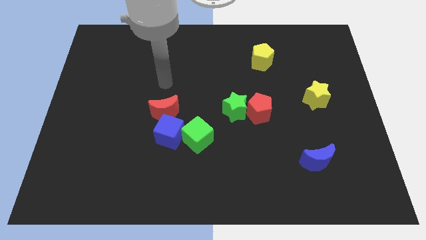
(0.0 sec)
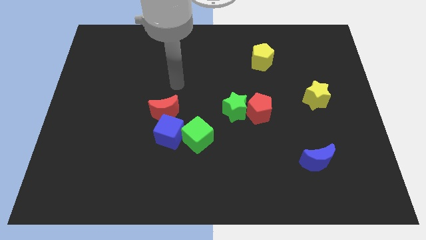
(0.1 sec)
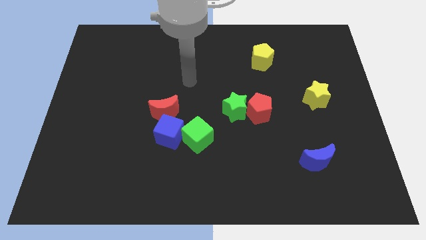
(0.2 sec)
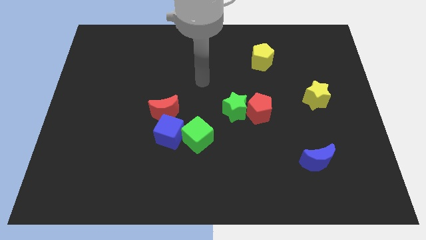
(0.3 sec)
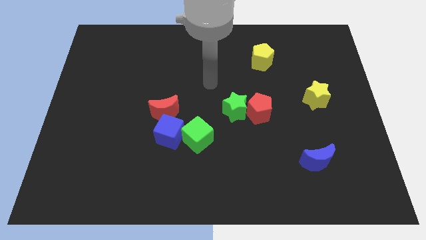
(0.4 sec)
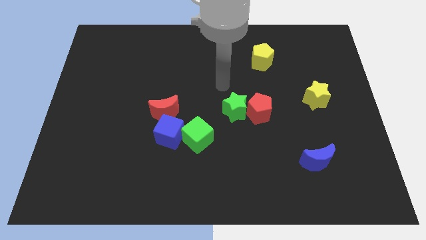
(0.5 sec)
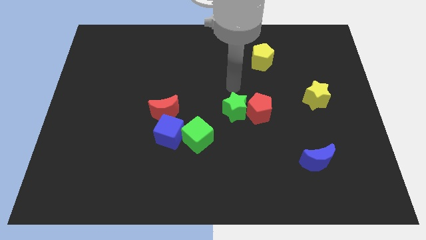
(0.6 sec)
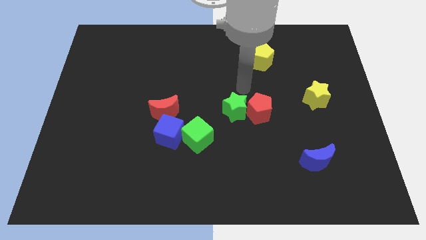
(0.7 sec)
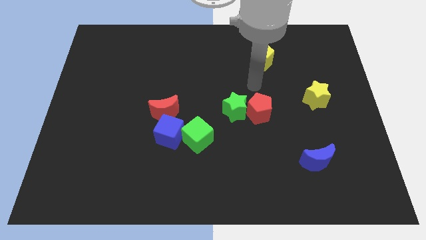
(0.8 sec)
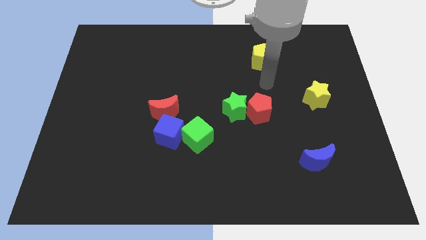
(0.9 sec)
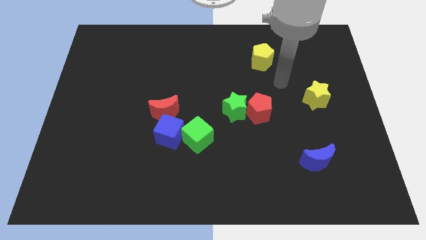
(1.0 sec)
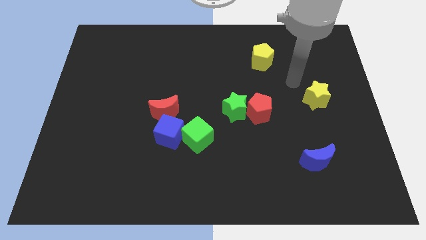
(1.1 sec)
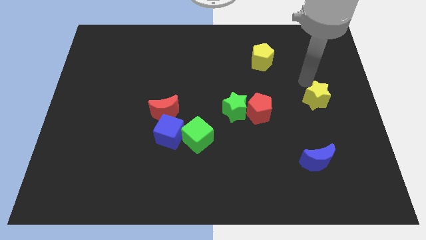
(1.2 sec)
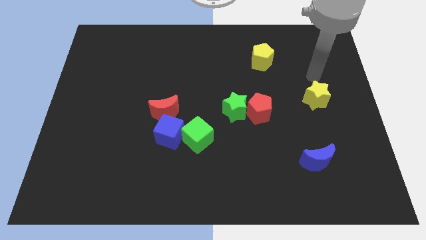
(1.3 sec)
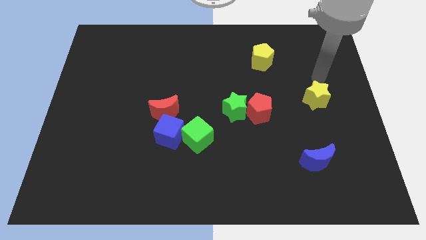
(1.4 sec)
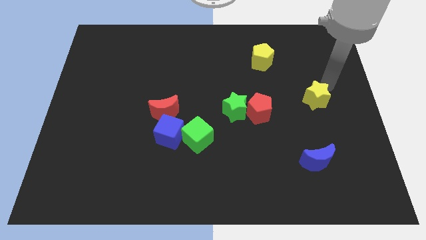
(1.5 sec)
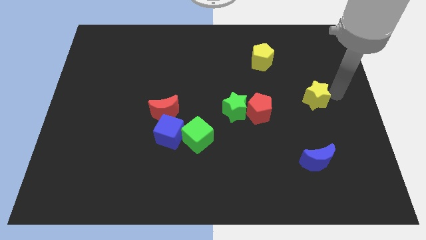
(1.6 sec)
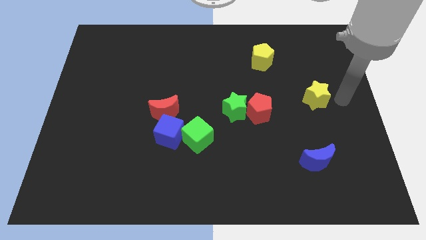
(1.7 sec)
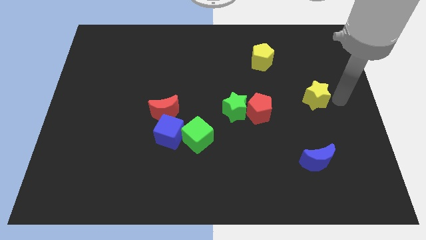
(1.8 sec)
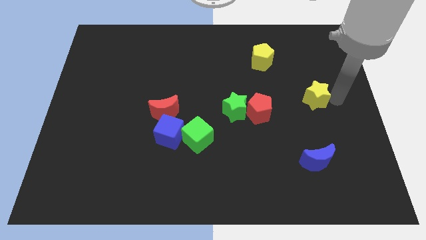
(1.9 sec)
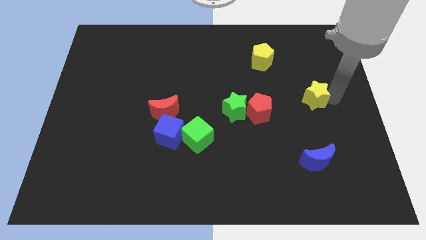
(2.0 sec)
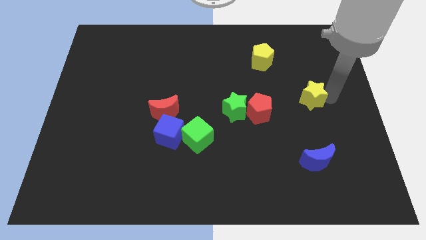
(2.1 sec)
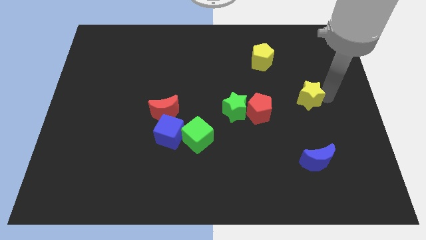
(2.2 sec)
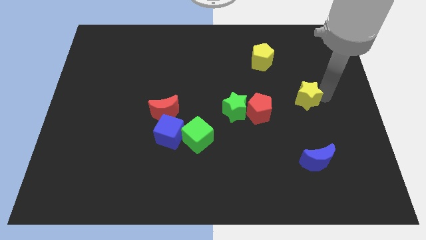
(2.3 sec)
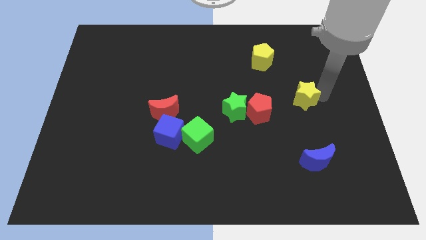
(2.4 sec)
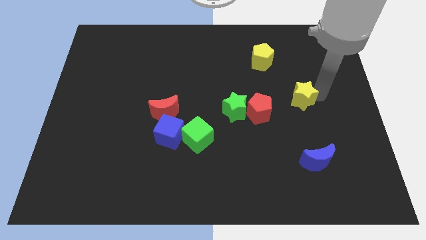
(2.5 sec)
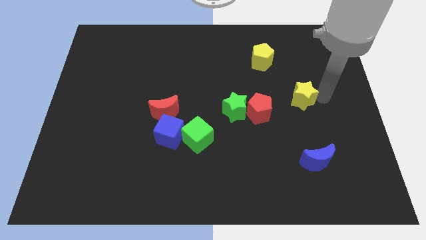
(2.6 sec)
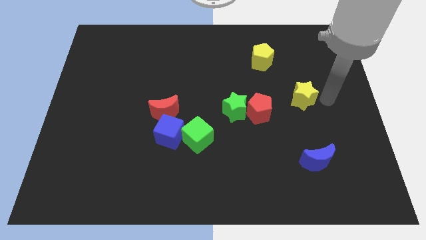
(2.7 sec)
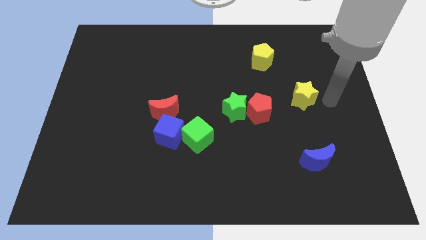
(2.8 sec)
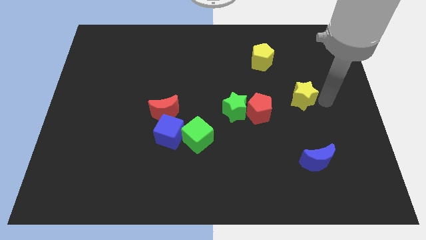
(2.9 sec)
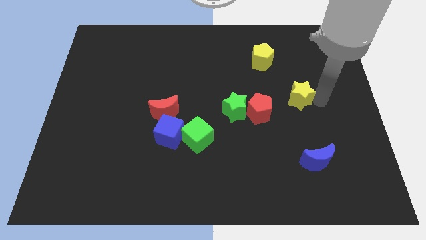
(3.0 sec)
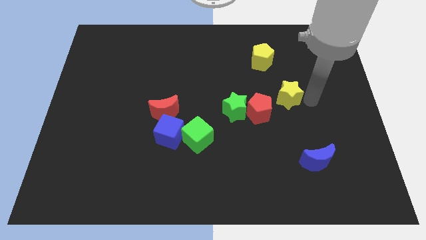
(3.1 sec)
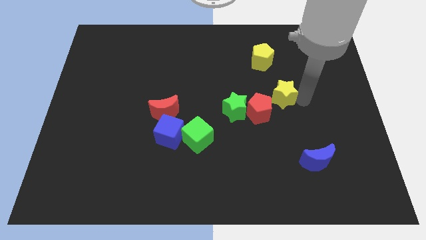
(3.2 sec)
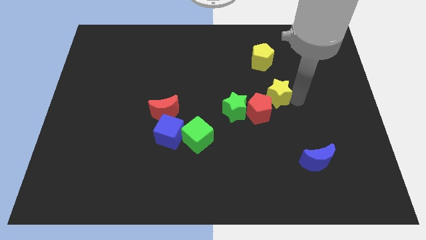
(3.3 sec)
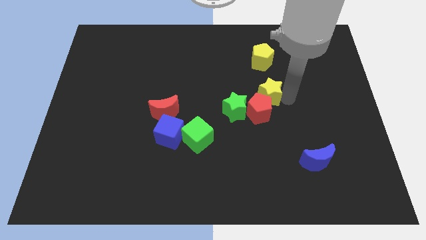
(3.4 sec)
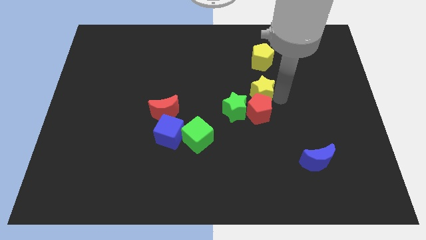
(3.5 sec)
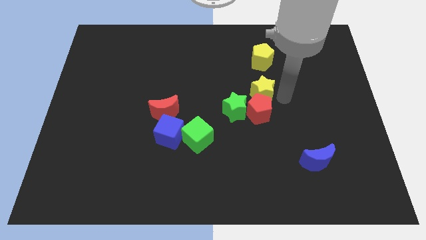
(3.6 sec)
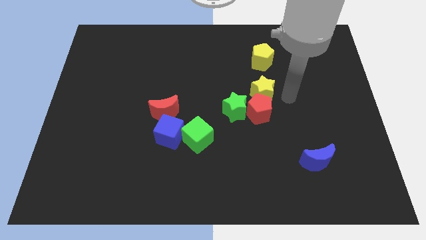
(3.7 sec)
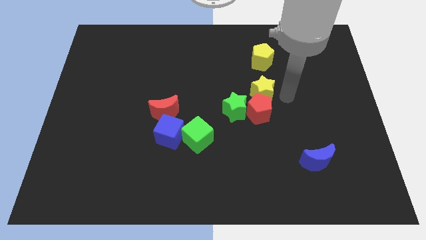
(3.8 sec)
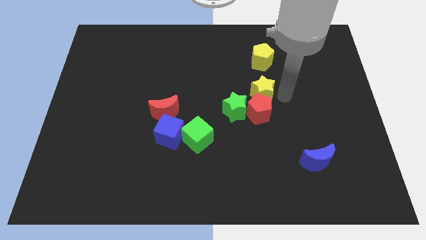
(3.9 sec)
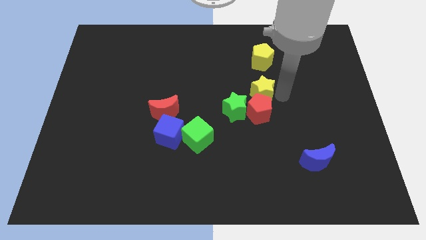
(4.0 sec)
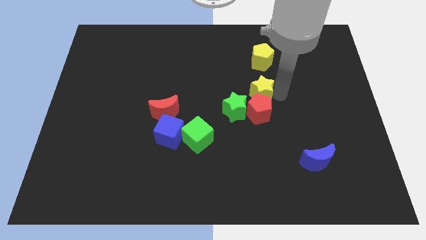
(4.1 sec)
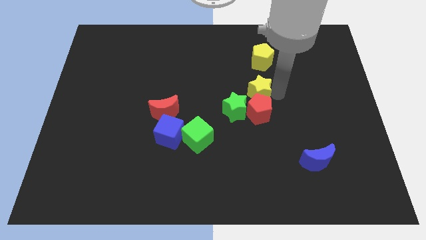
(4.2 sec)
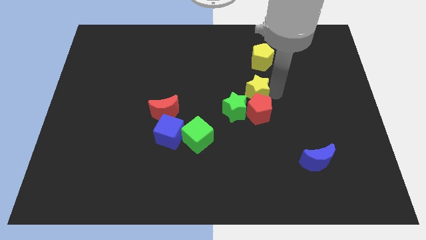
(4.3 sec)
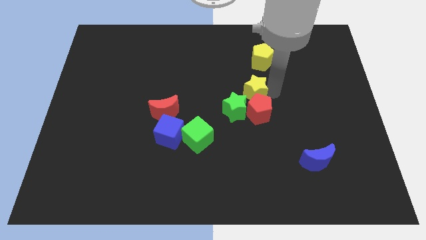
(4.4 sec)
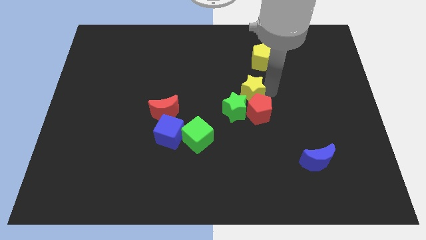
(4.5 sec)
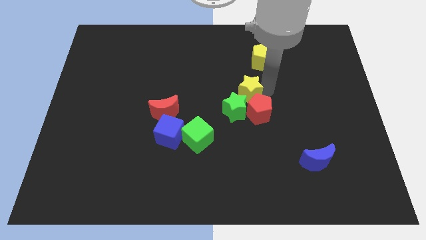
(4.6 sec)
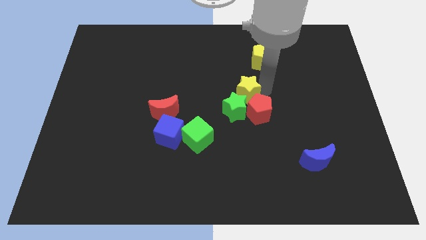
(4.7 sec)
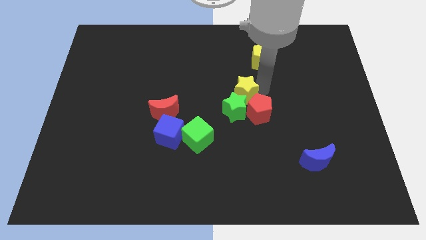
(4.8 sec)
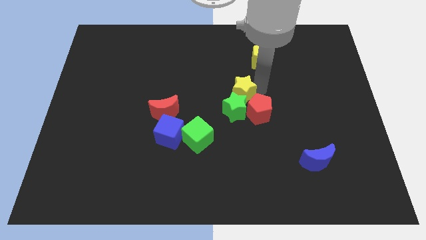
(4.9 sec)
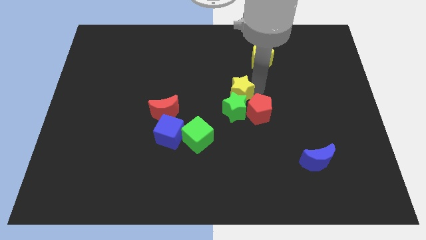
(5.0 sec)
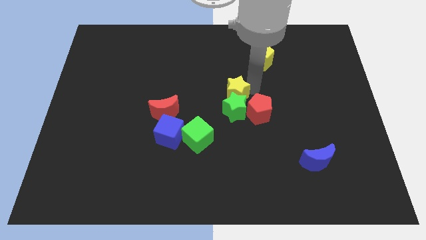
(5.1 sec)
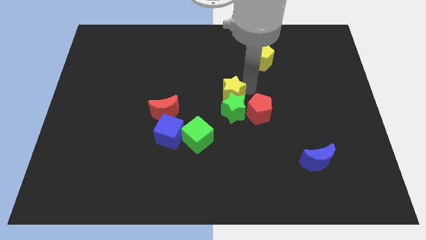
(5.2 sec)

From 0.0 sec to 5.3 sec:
slide the yellow star left

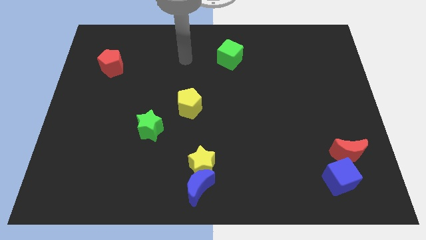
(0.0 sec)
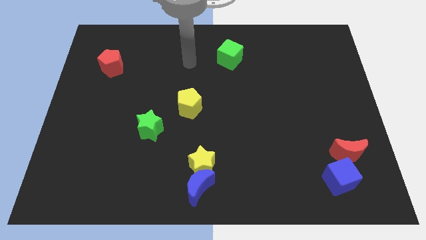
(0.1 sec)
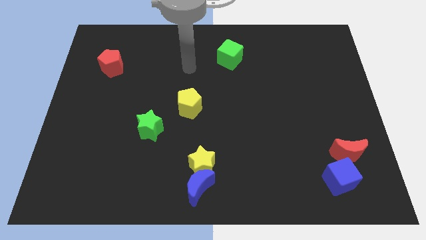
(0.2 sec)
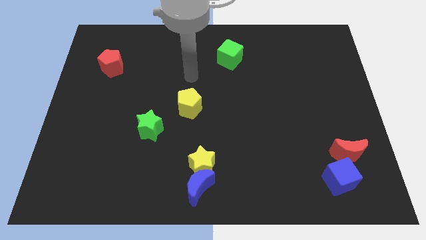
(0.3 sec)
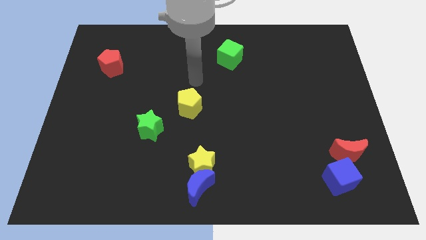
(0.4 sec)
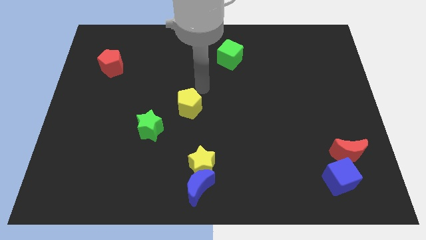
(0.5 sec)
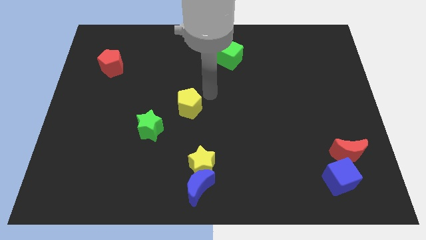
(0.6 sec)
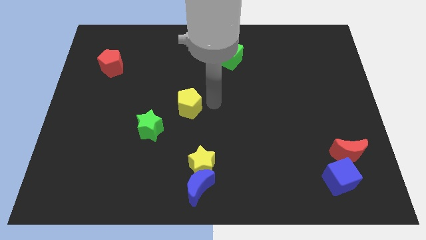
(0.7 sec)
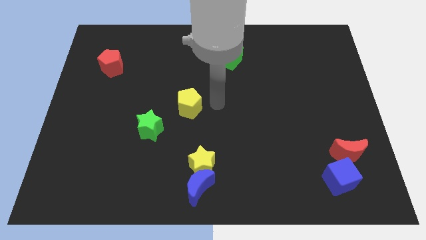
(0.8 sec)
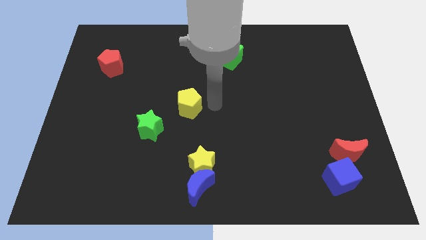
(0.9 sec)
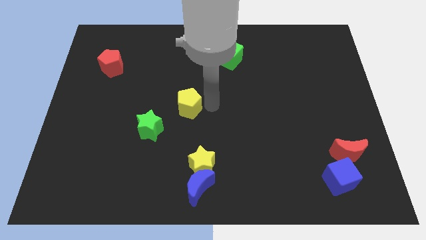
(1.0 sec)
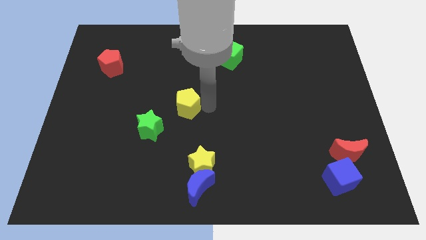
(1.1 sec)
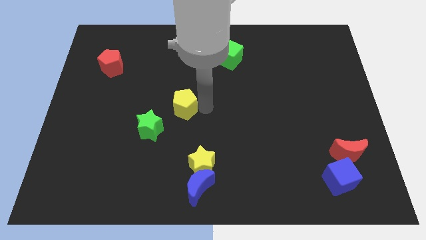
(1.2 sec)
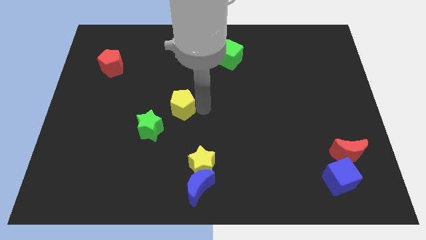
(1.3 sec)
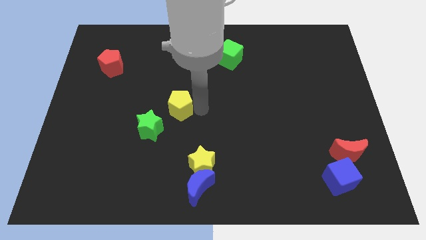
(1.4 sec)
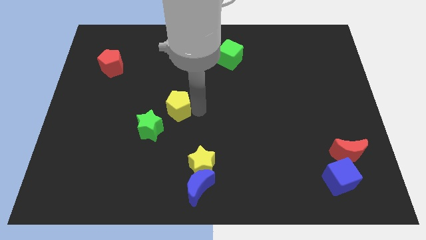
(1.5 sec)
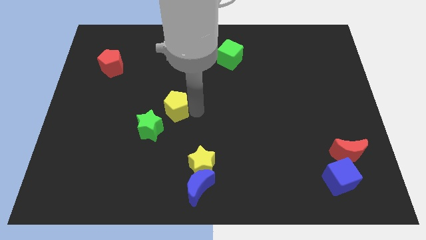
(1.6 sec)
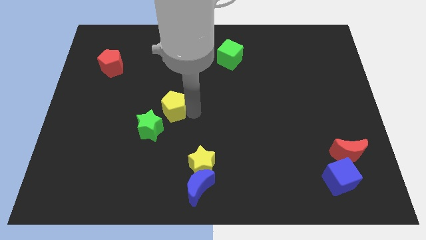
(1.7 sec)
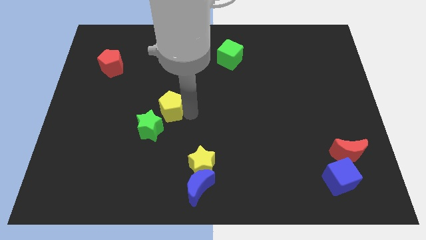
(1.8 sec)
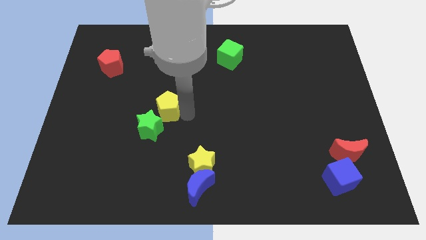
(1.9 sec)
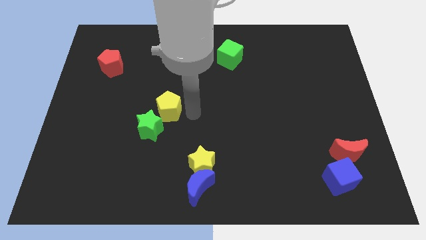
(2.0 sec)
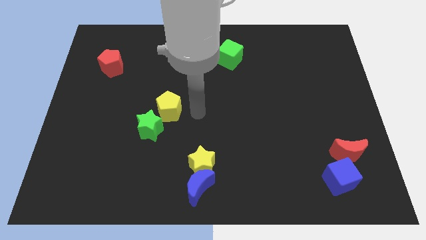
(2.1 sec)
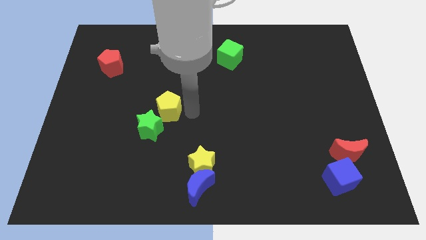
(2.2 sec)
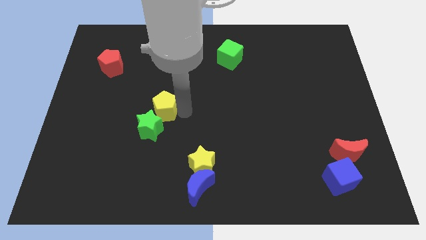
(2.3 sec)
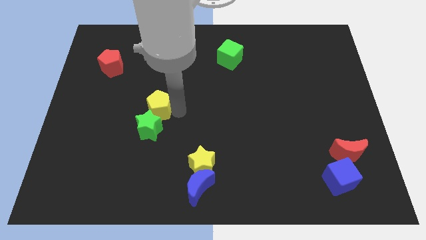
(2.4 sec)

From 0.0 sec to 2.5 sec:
push the yellow pentagon left somewhat

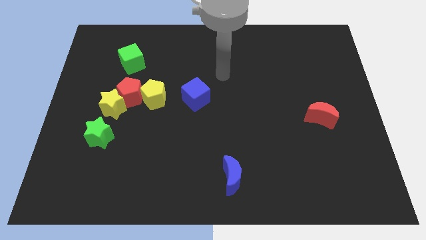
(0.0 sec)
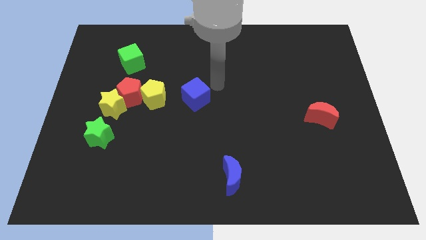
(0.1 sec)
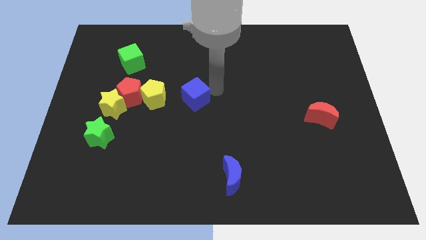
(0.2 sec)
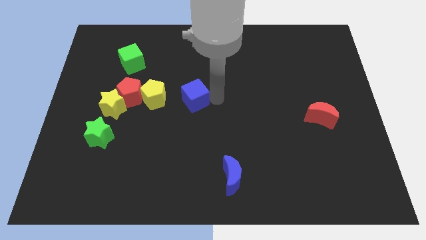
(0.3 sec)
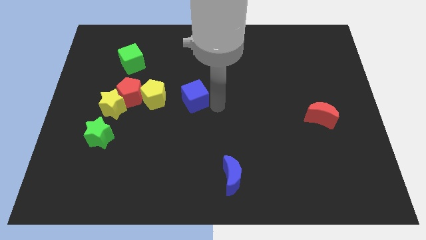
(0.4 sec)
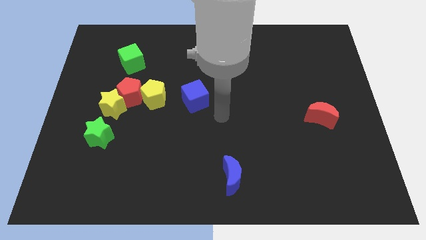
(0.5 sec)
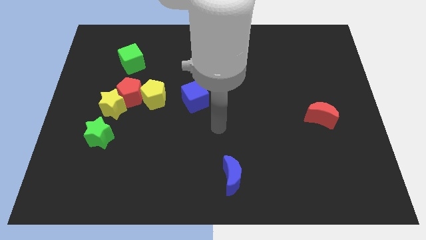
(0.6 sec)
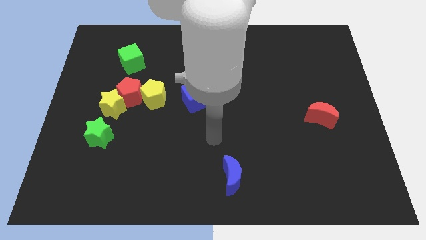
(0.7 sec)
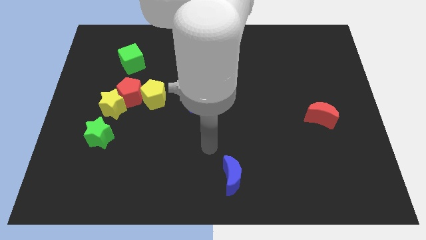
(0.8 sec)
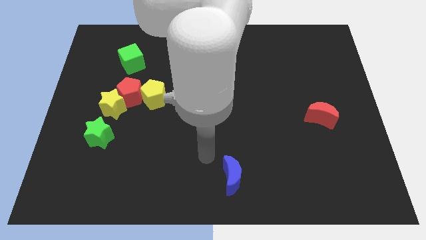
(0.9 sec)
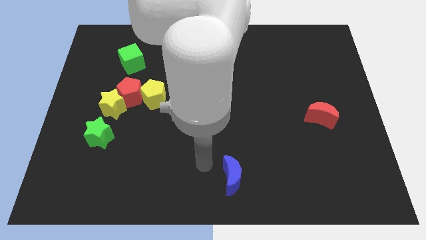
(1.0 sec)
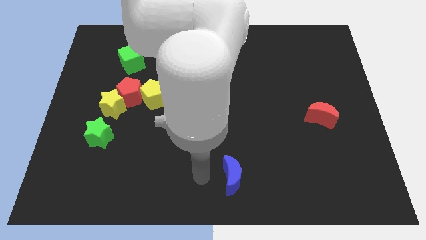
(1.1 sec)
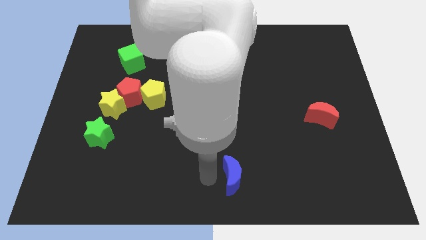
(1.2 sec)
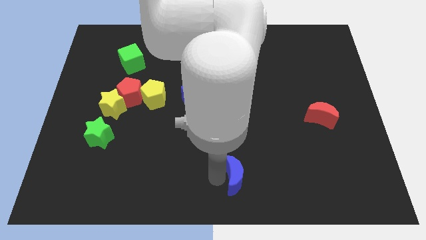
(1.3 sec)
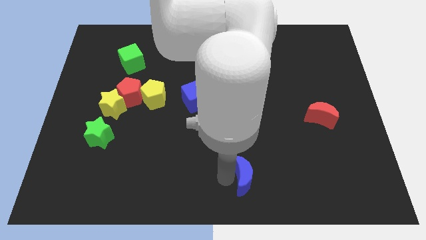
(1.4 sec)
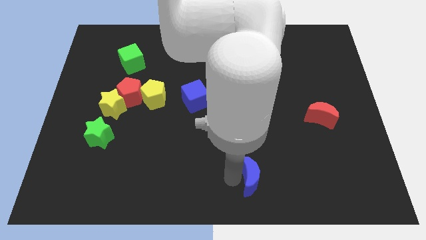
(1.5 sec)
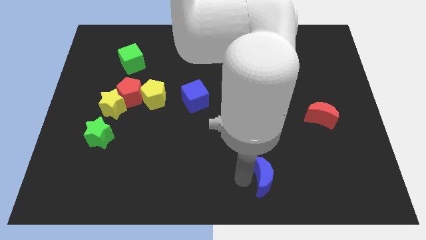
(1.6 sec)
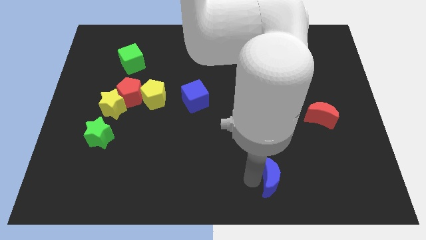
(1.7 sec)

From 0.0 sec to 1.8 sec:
push the blue moon somewhat right
